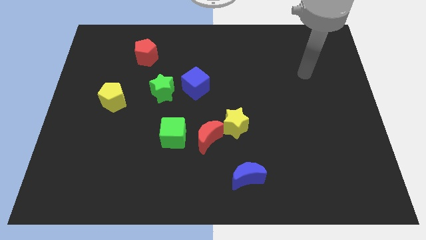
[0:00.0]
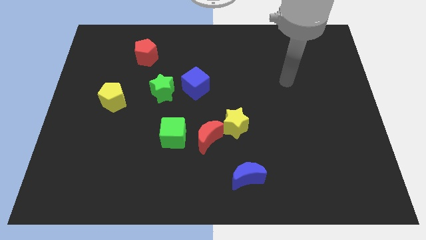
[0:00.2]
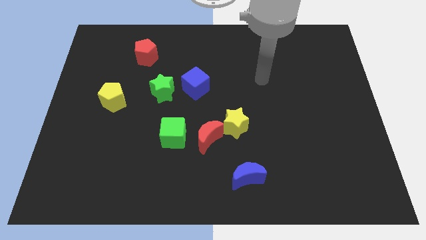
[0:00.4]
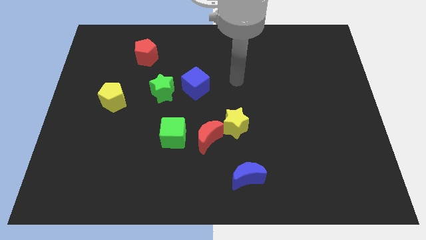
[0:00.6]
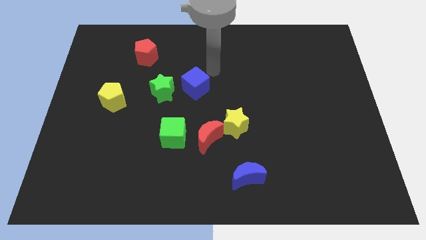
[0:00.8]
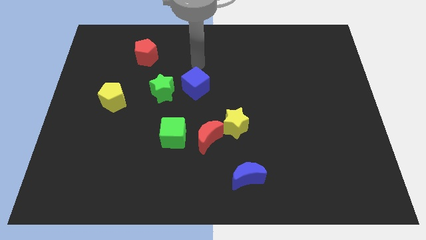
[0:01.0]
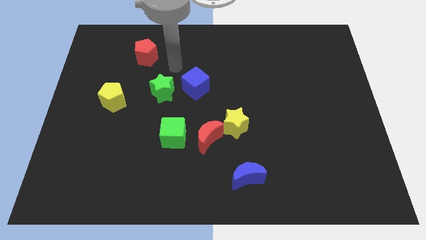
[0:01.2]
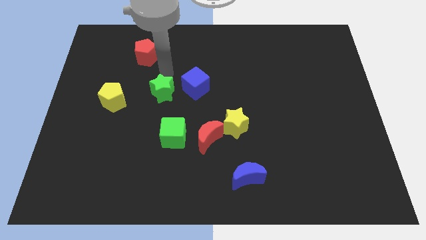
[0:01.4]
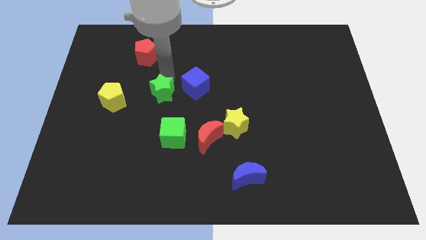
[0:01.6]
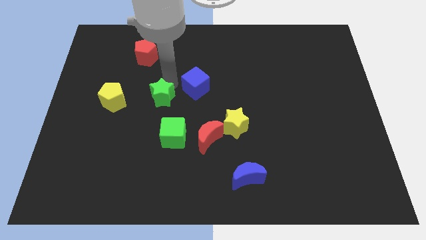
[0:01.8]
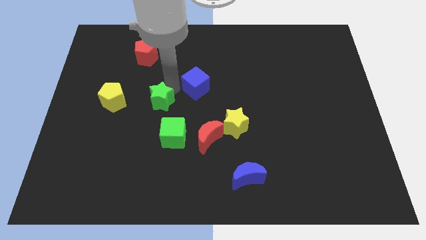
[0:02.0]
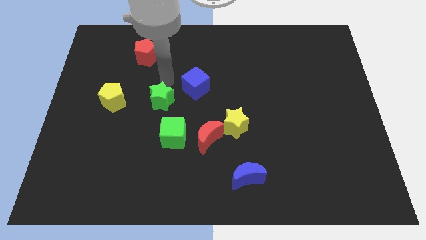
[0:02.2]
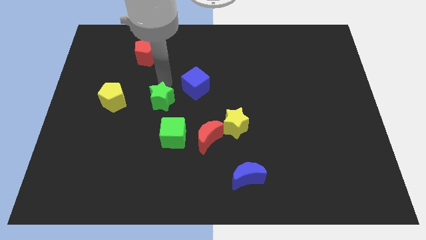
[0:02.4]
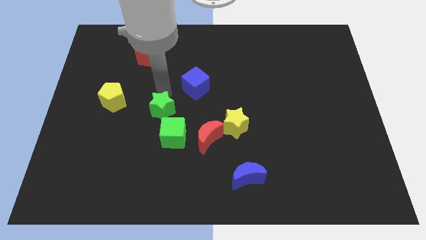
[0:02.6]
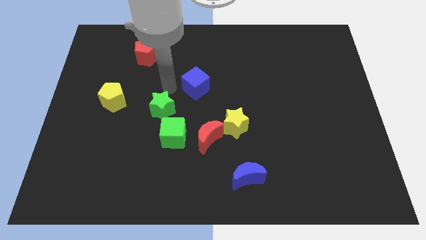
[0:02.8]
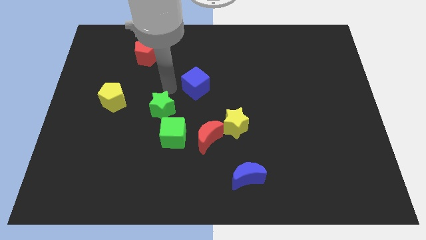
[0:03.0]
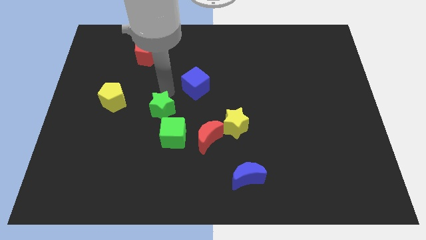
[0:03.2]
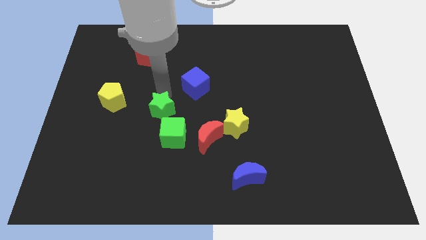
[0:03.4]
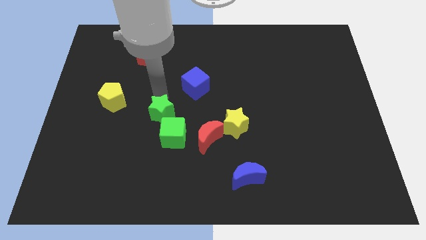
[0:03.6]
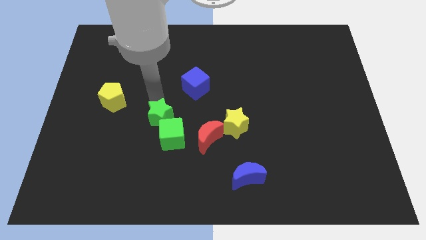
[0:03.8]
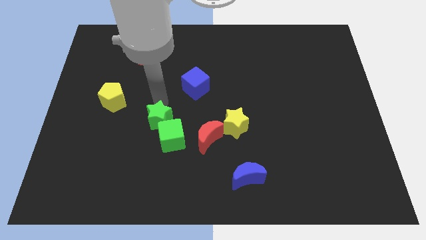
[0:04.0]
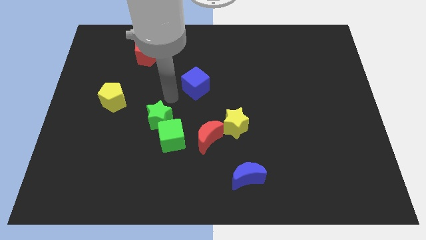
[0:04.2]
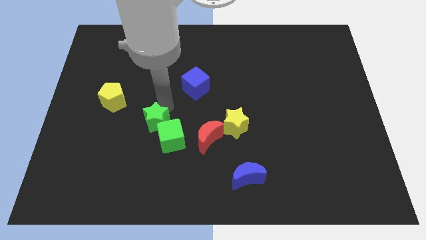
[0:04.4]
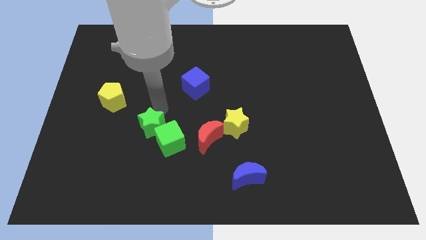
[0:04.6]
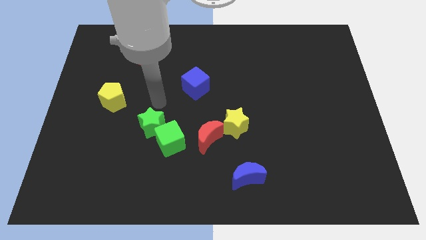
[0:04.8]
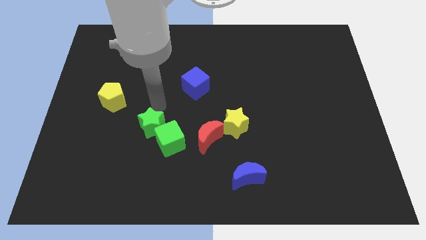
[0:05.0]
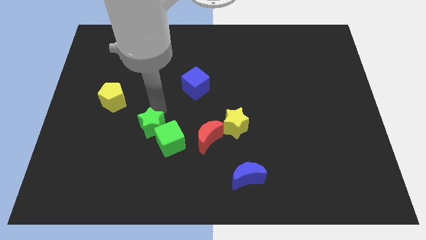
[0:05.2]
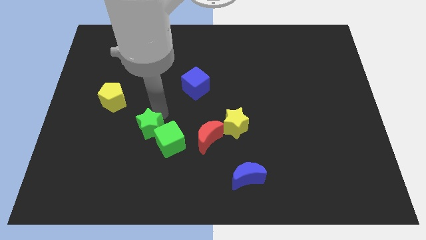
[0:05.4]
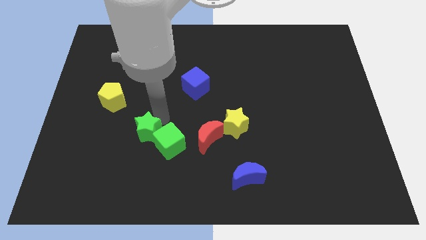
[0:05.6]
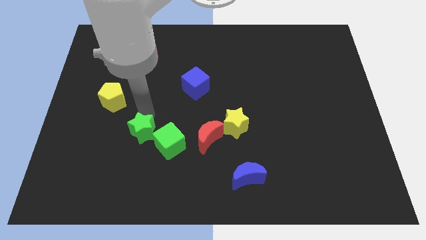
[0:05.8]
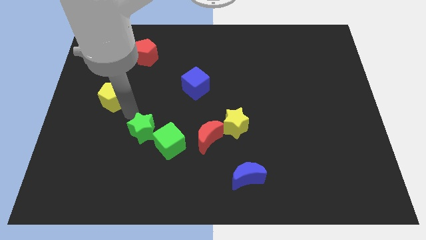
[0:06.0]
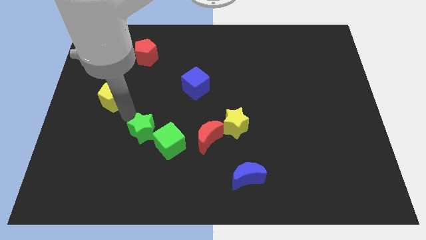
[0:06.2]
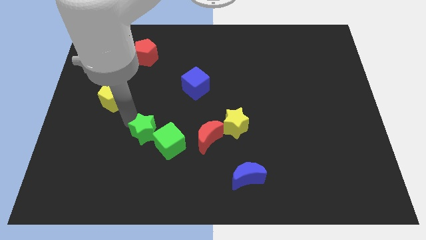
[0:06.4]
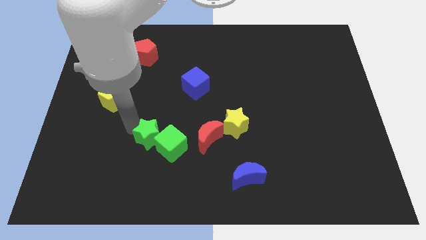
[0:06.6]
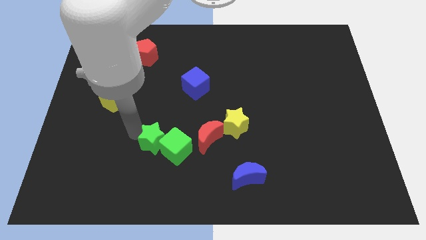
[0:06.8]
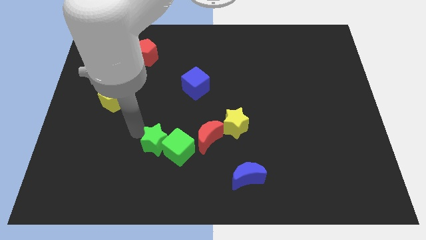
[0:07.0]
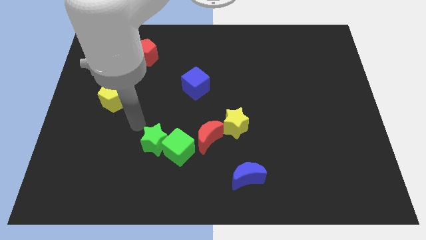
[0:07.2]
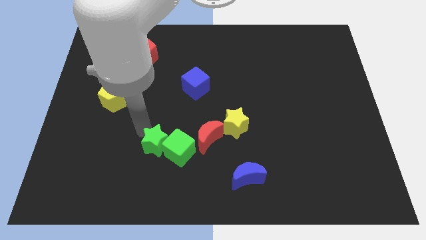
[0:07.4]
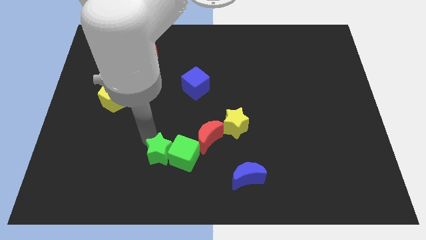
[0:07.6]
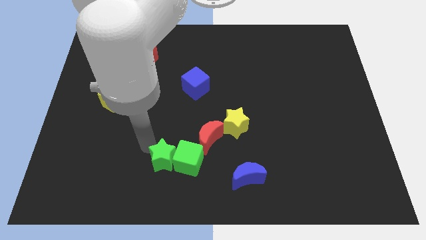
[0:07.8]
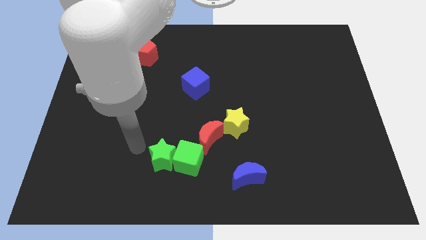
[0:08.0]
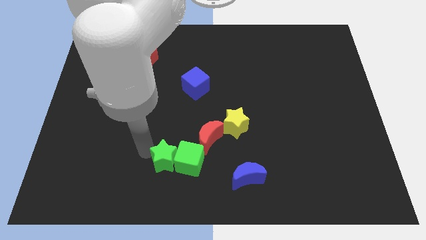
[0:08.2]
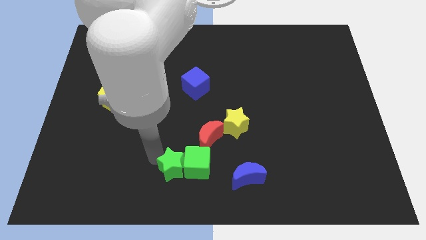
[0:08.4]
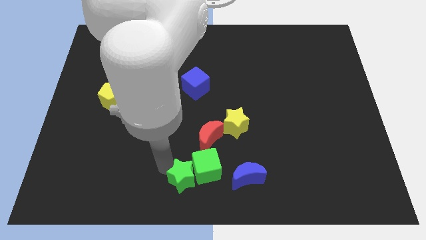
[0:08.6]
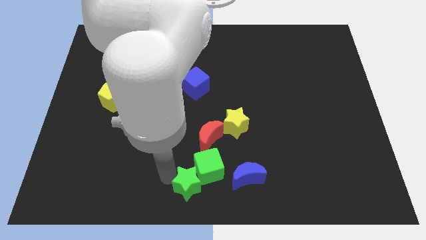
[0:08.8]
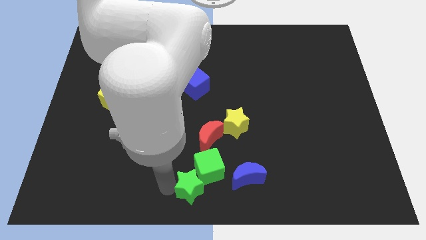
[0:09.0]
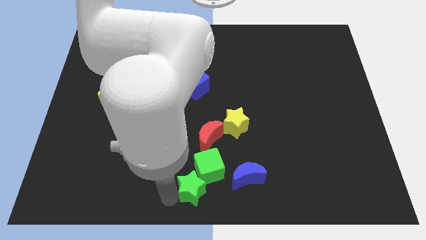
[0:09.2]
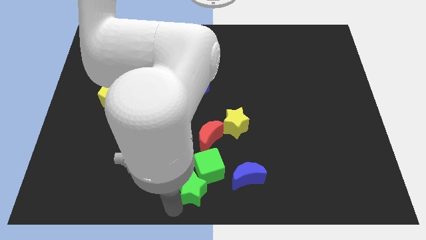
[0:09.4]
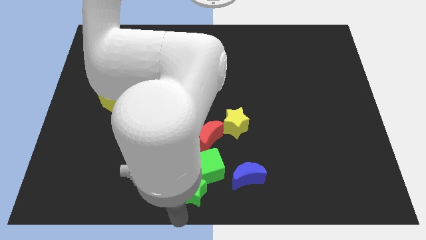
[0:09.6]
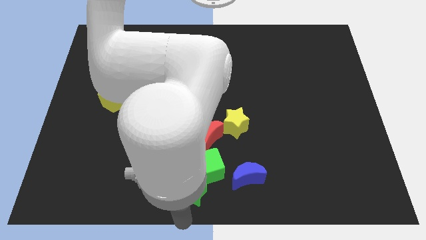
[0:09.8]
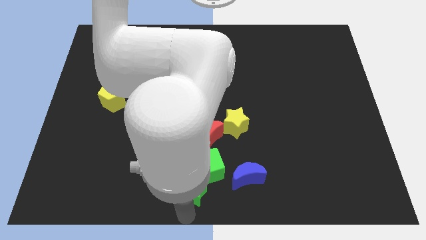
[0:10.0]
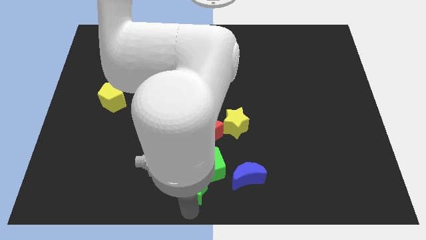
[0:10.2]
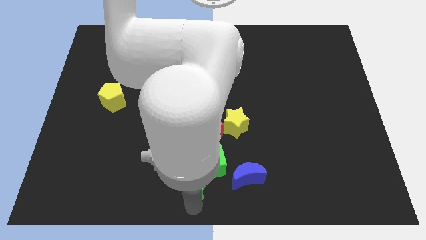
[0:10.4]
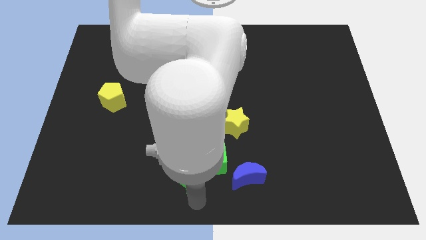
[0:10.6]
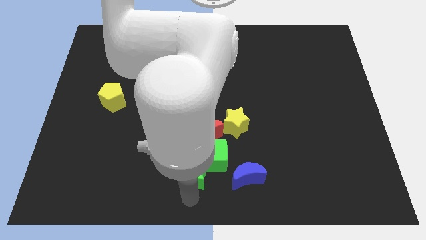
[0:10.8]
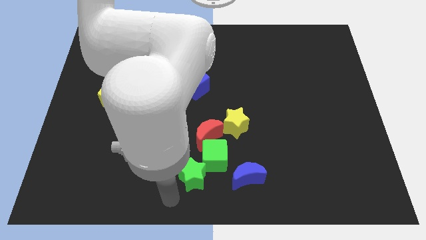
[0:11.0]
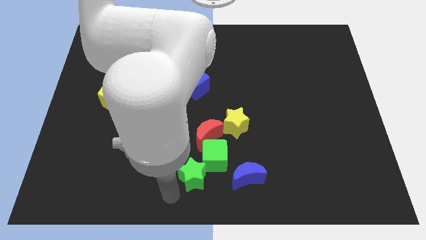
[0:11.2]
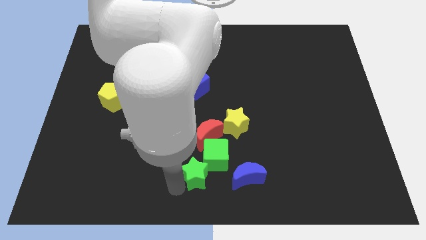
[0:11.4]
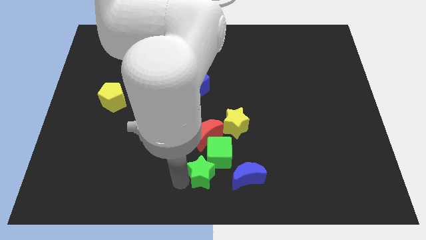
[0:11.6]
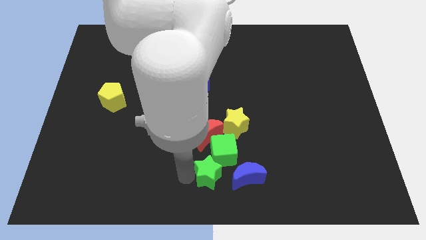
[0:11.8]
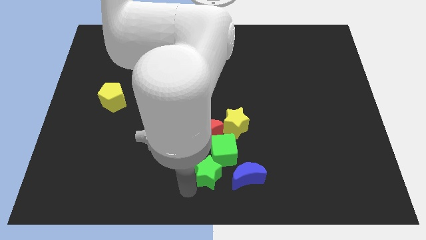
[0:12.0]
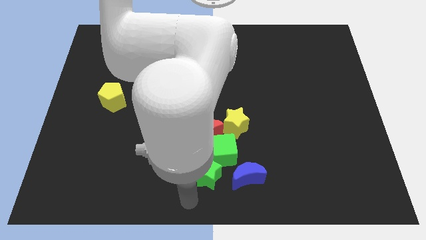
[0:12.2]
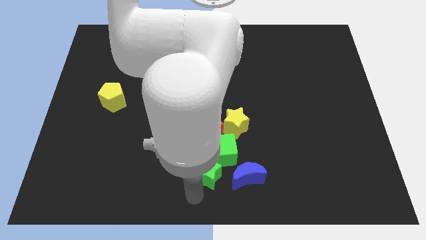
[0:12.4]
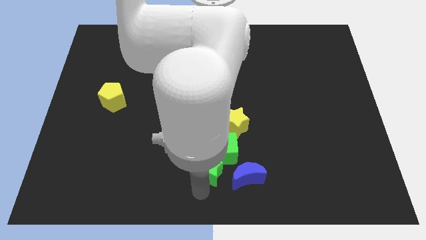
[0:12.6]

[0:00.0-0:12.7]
push the green star to the top left of the blue moon
